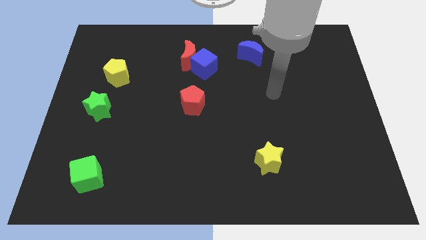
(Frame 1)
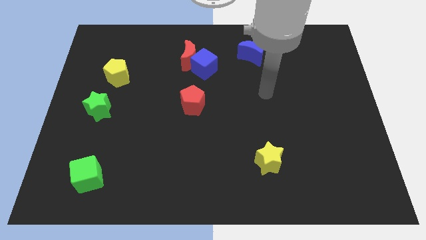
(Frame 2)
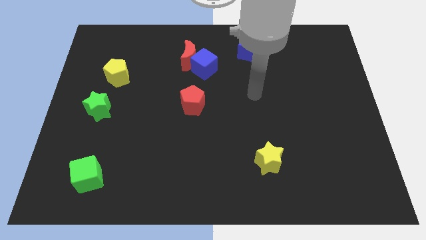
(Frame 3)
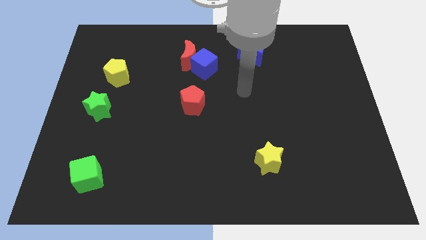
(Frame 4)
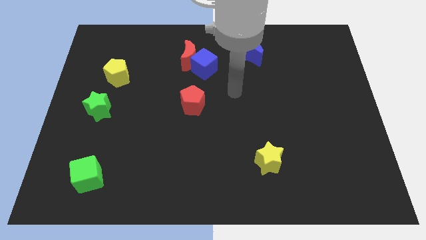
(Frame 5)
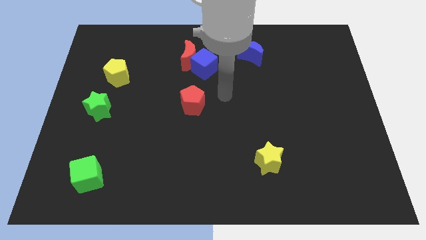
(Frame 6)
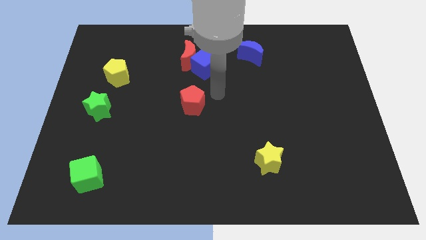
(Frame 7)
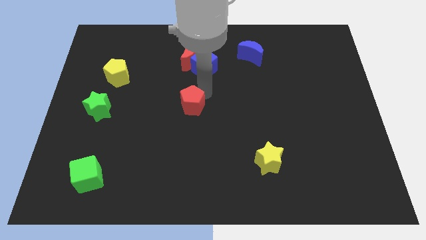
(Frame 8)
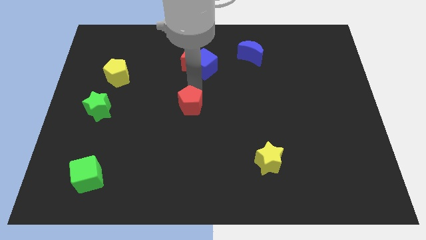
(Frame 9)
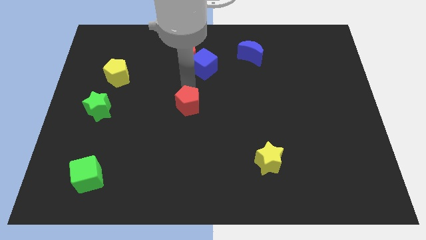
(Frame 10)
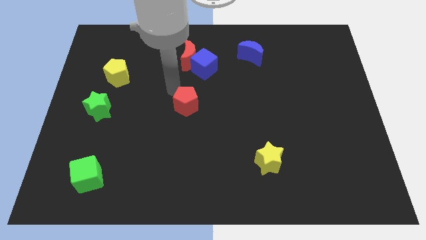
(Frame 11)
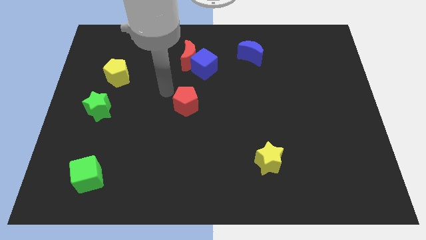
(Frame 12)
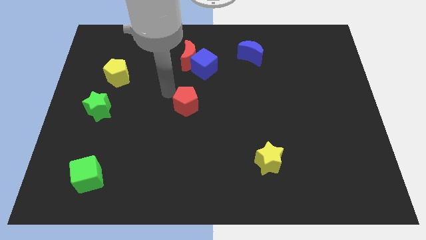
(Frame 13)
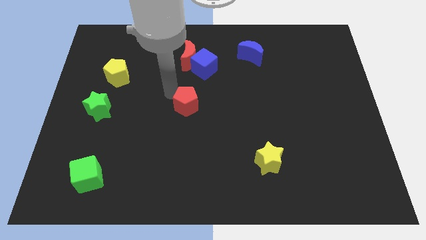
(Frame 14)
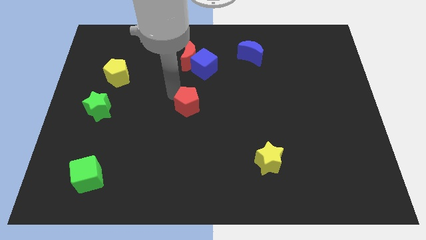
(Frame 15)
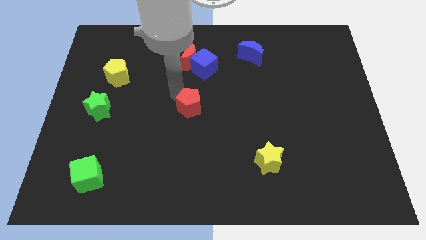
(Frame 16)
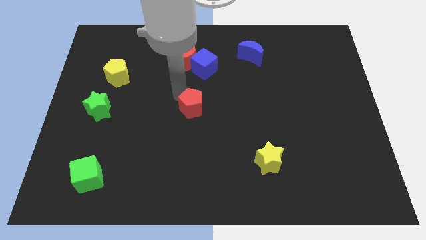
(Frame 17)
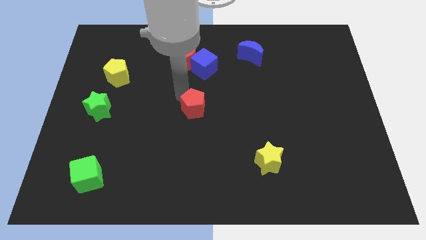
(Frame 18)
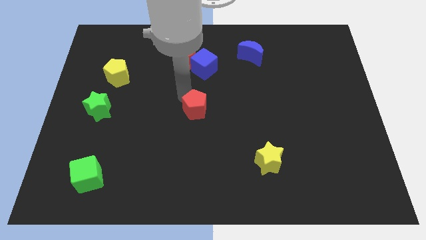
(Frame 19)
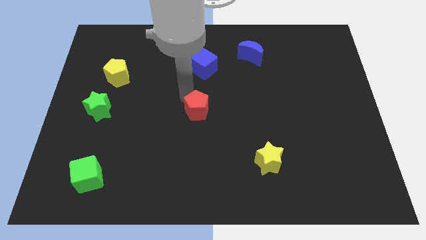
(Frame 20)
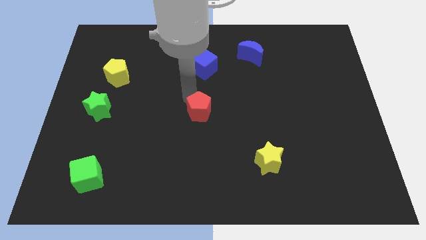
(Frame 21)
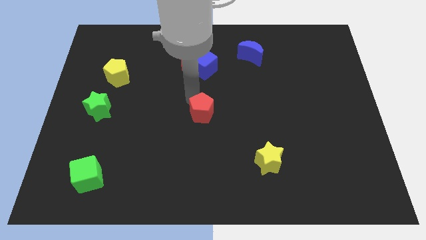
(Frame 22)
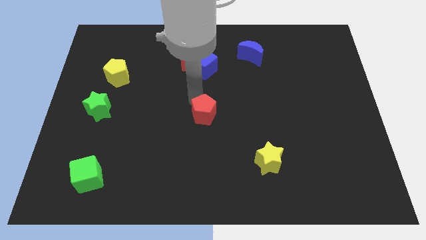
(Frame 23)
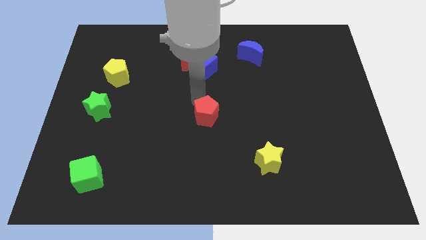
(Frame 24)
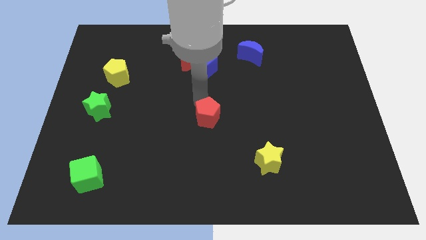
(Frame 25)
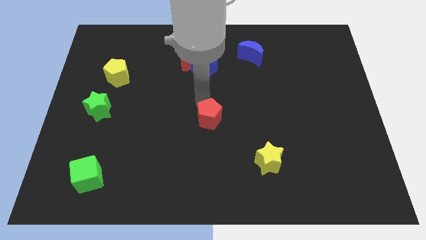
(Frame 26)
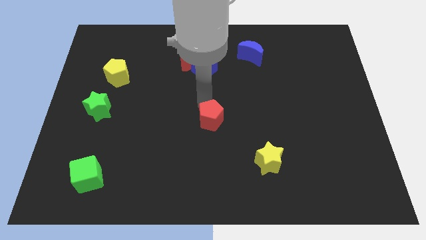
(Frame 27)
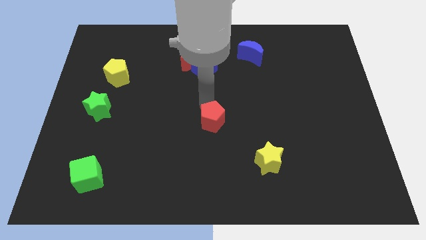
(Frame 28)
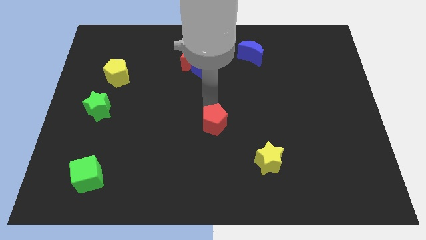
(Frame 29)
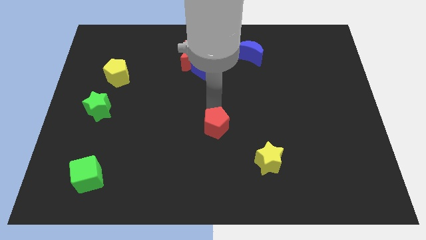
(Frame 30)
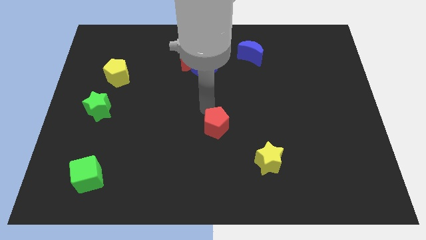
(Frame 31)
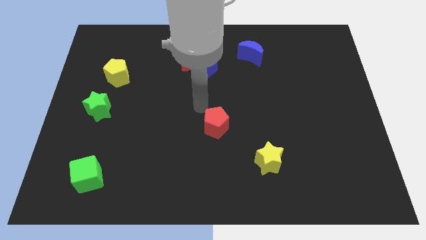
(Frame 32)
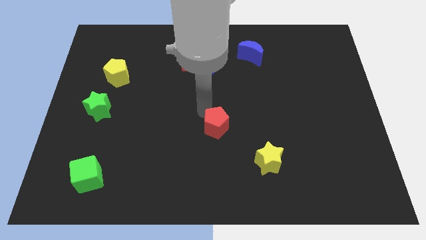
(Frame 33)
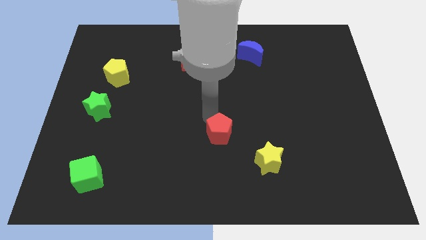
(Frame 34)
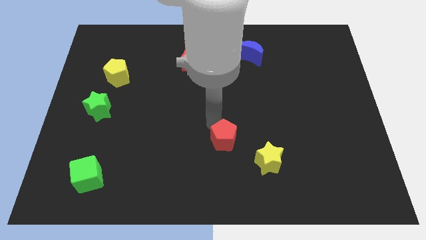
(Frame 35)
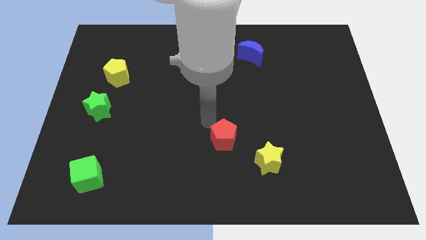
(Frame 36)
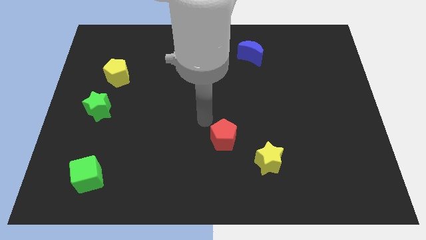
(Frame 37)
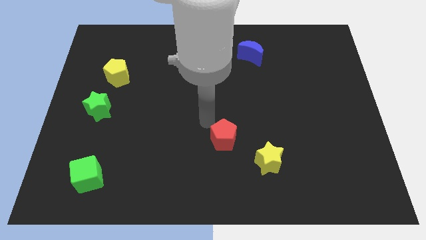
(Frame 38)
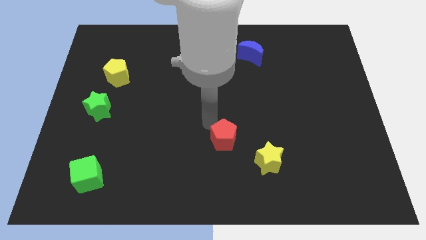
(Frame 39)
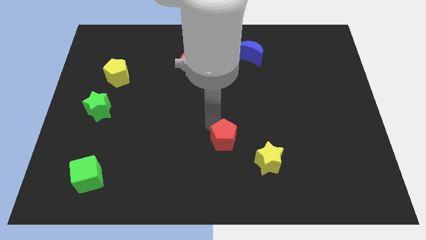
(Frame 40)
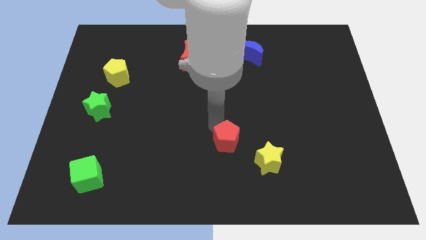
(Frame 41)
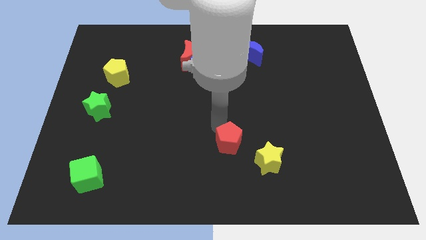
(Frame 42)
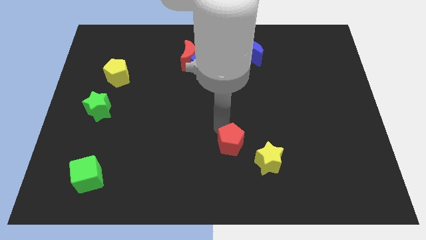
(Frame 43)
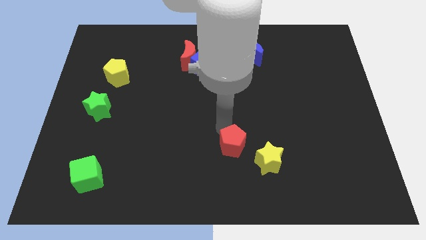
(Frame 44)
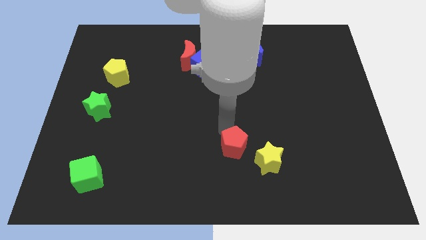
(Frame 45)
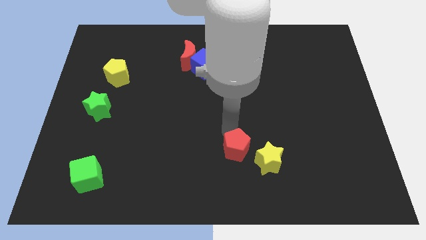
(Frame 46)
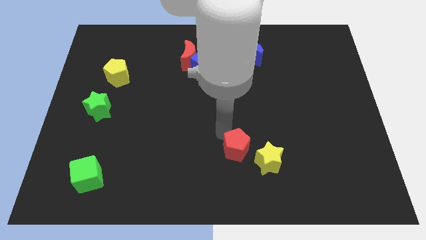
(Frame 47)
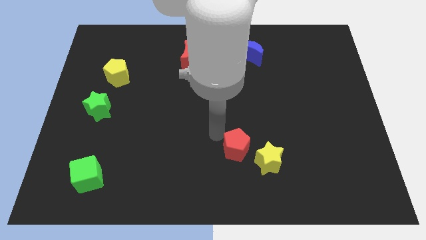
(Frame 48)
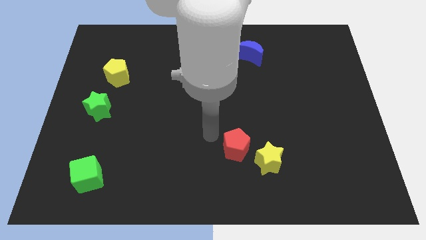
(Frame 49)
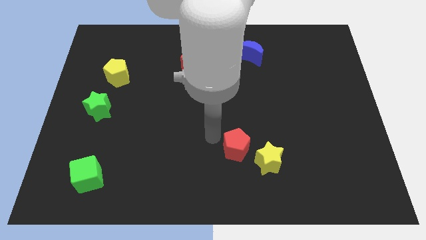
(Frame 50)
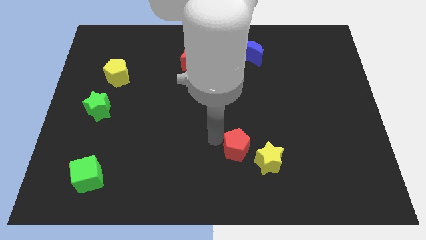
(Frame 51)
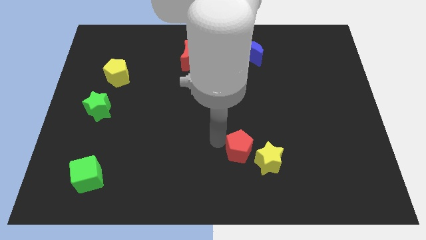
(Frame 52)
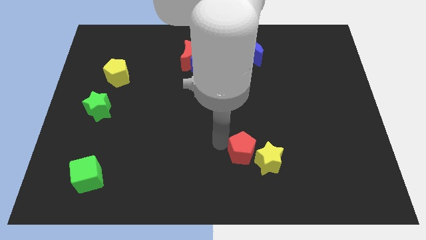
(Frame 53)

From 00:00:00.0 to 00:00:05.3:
push the red pentagon next to the yellow star

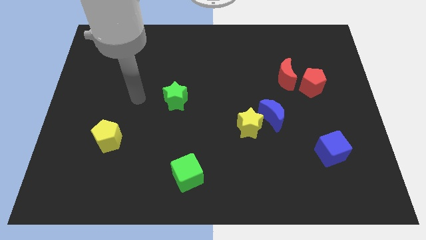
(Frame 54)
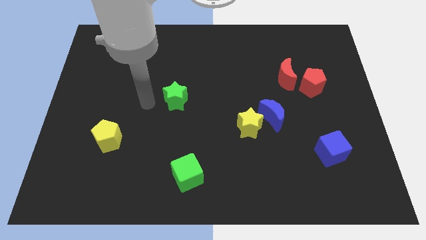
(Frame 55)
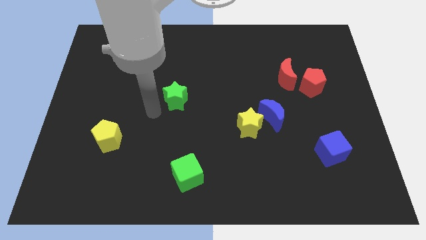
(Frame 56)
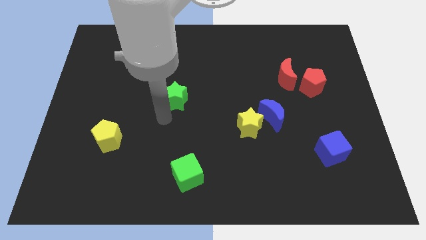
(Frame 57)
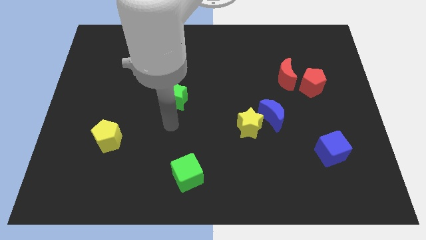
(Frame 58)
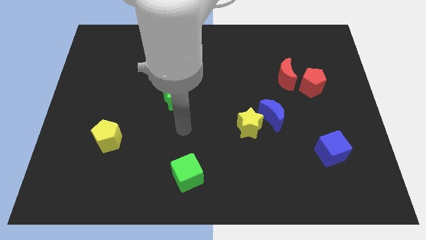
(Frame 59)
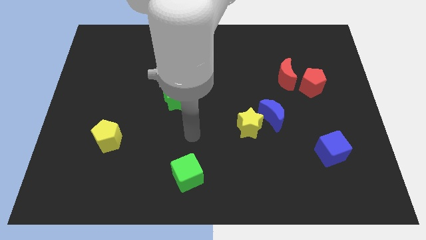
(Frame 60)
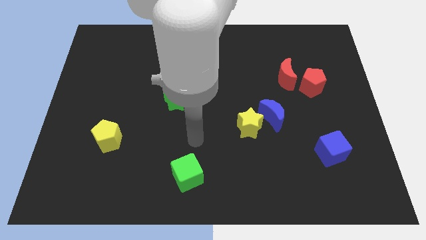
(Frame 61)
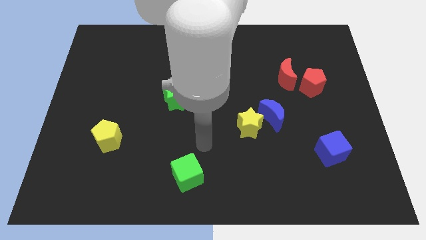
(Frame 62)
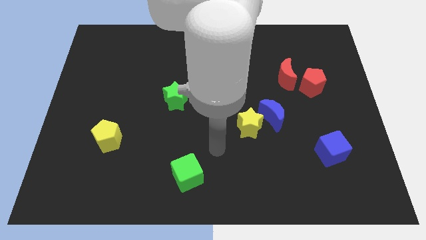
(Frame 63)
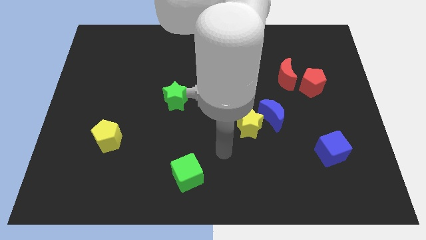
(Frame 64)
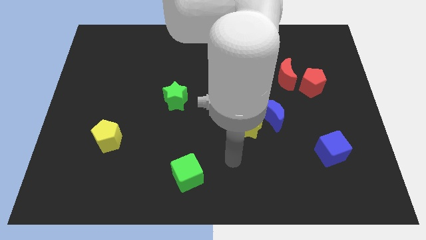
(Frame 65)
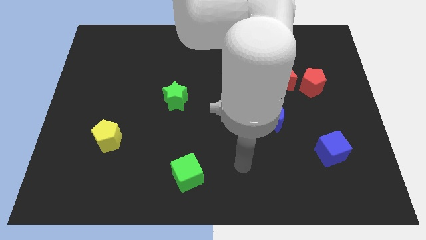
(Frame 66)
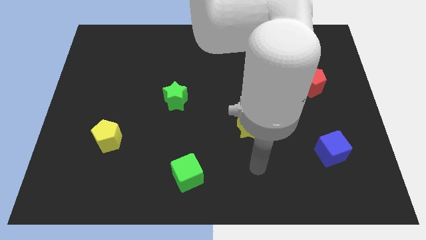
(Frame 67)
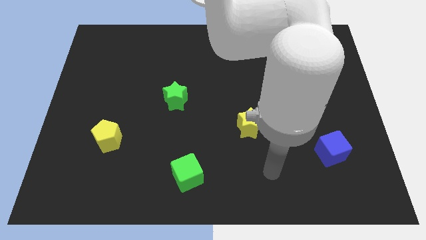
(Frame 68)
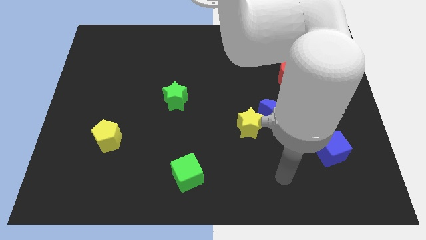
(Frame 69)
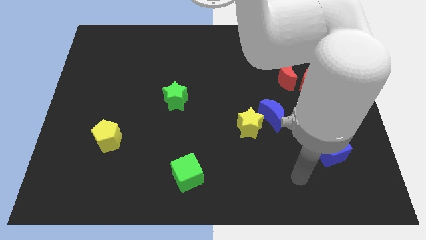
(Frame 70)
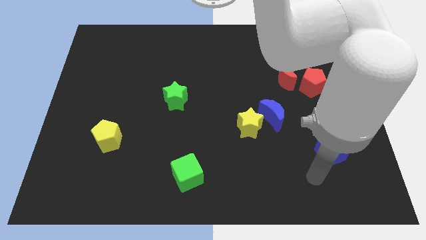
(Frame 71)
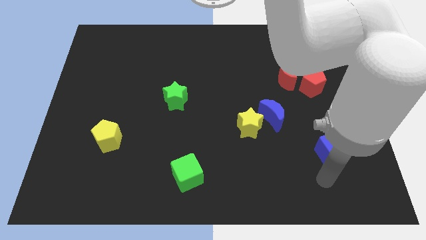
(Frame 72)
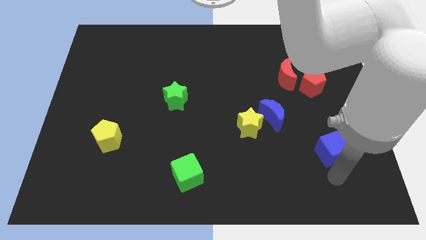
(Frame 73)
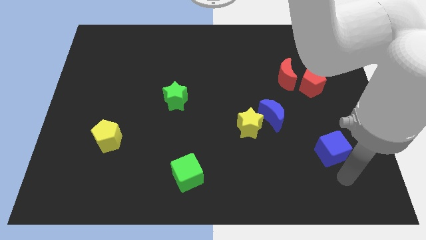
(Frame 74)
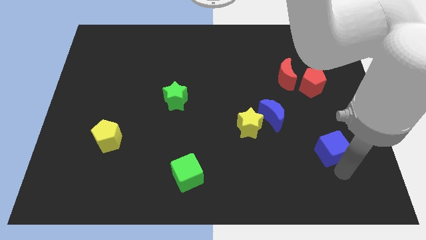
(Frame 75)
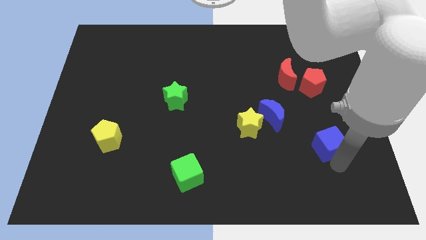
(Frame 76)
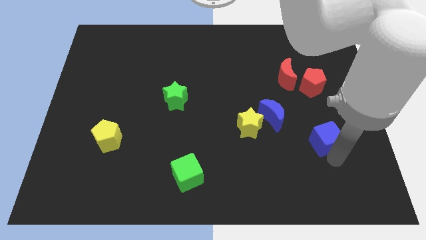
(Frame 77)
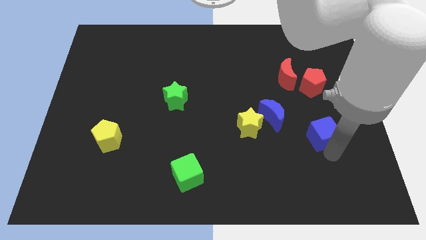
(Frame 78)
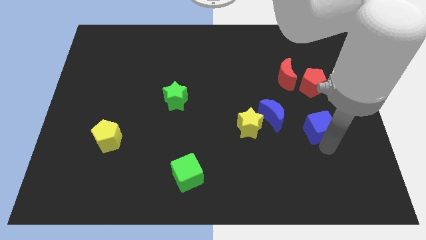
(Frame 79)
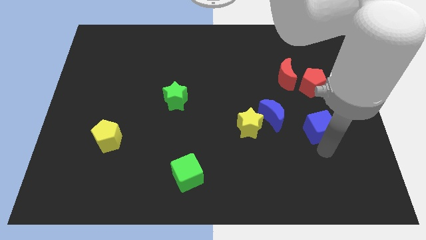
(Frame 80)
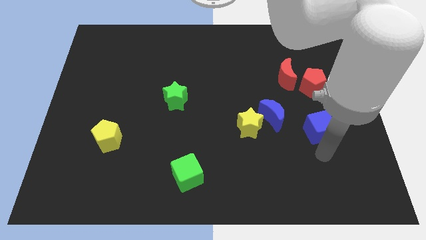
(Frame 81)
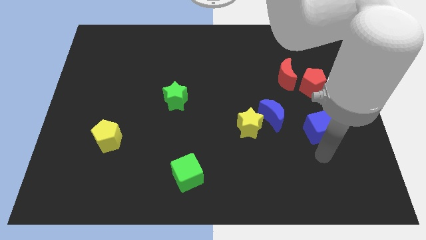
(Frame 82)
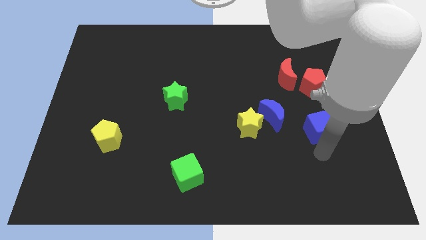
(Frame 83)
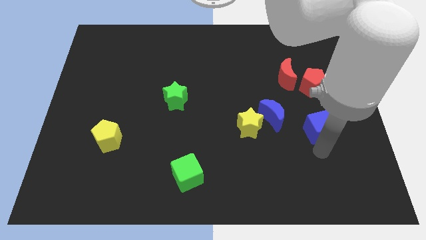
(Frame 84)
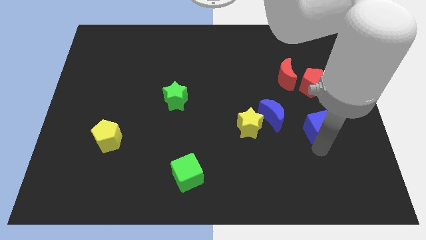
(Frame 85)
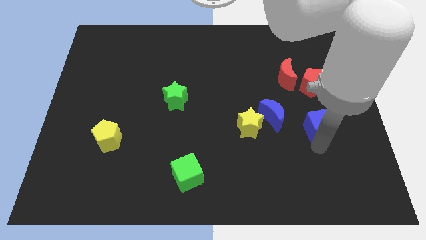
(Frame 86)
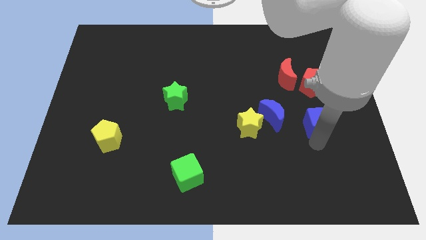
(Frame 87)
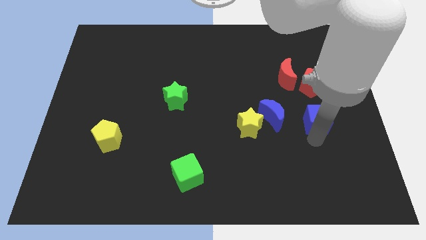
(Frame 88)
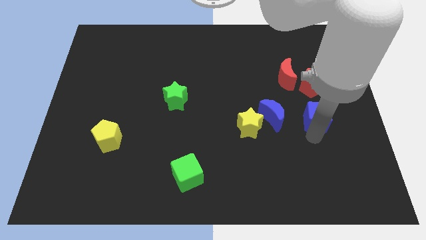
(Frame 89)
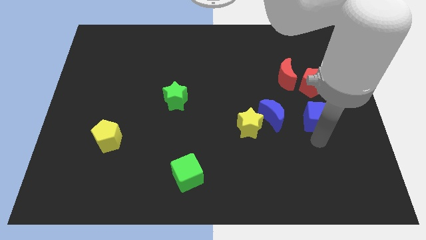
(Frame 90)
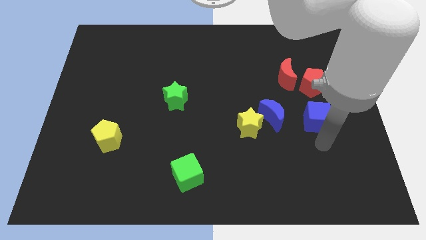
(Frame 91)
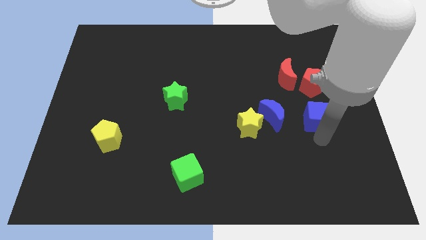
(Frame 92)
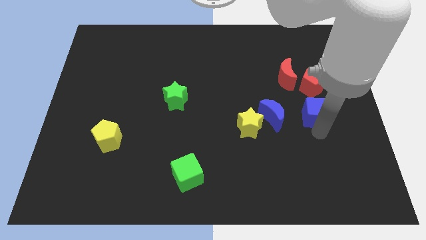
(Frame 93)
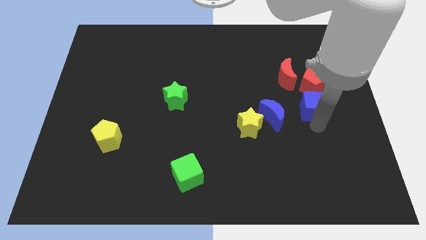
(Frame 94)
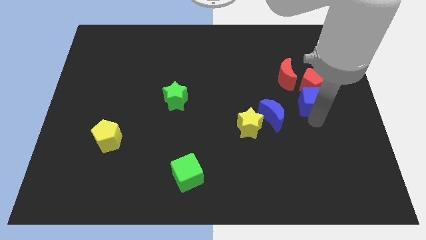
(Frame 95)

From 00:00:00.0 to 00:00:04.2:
push the blue cube to the red pentagon
